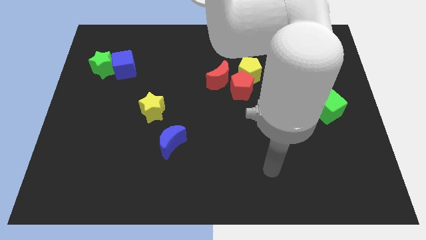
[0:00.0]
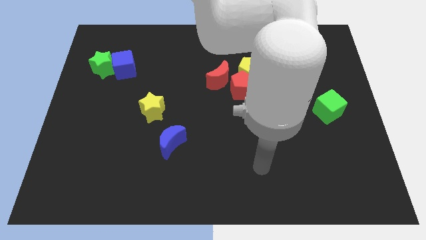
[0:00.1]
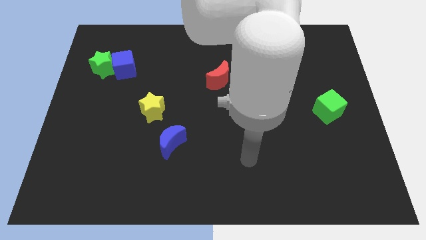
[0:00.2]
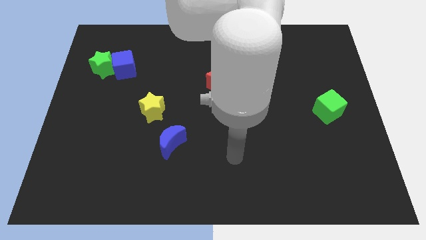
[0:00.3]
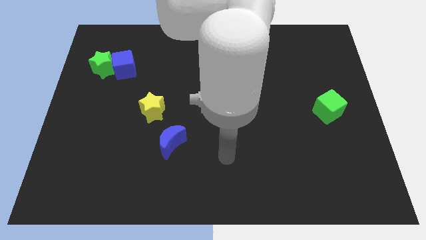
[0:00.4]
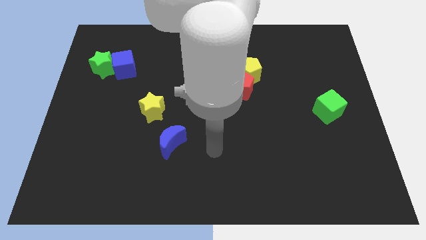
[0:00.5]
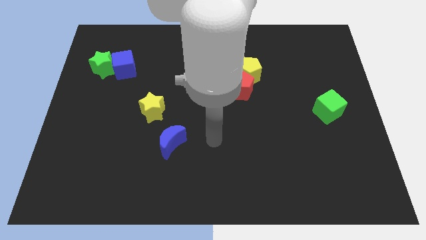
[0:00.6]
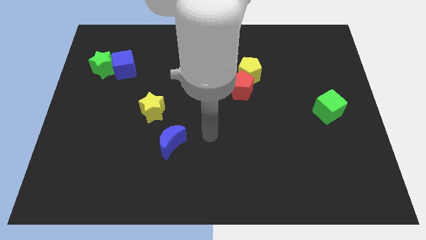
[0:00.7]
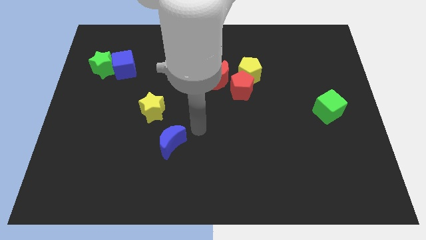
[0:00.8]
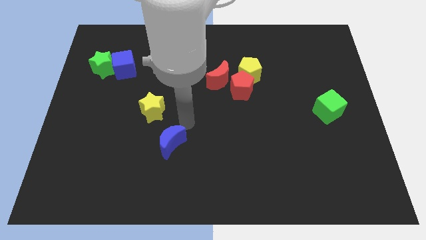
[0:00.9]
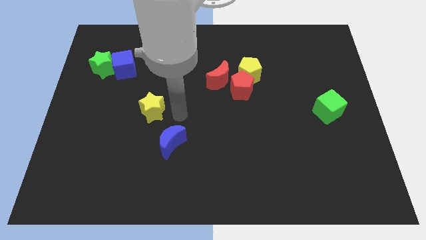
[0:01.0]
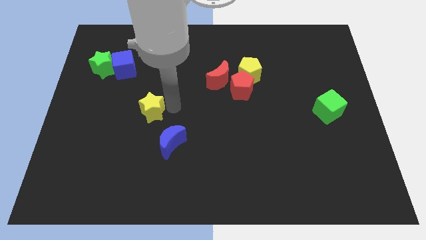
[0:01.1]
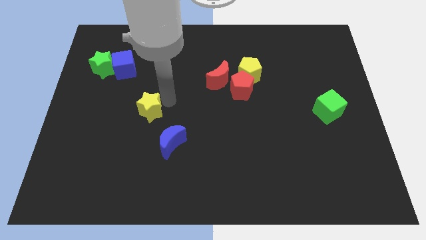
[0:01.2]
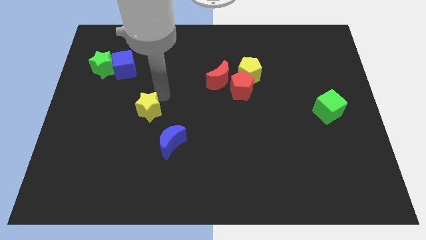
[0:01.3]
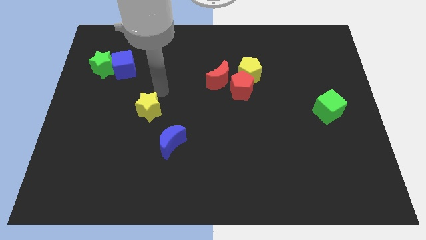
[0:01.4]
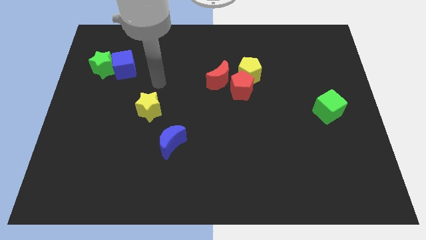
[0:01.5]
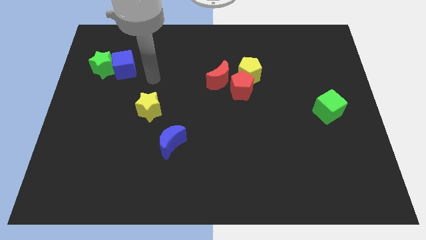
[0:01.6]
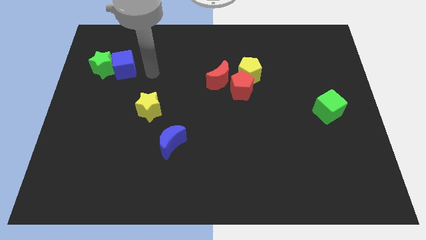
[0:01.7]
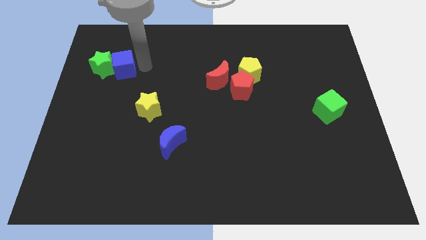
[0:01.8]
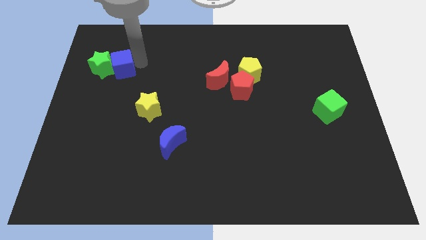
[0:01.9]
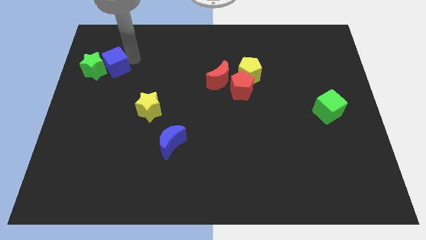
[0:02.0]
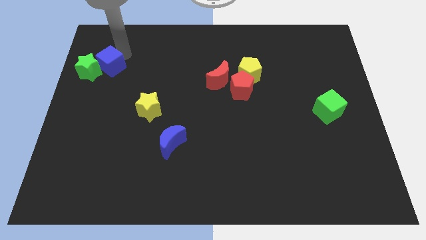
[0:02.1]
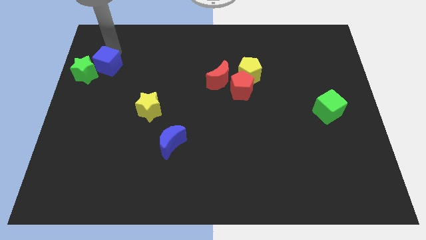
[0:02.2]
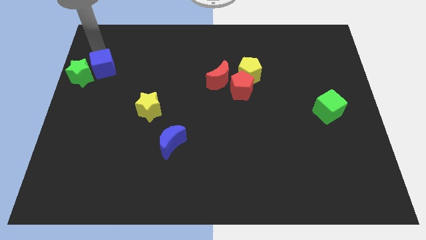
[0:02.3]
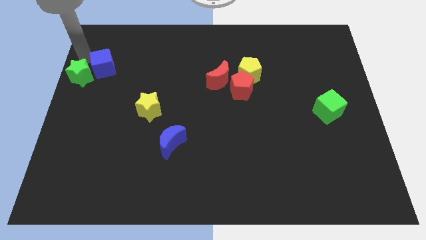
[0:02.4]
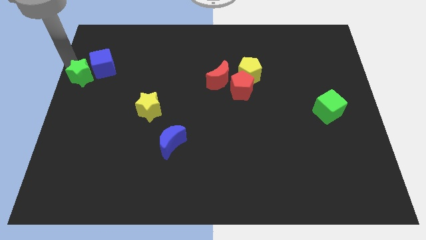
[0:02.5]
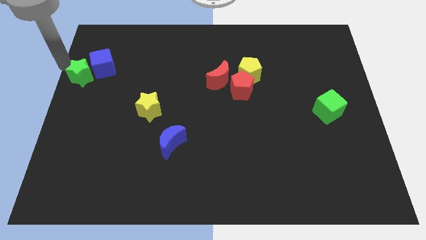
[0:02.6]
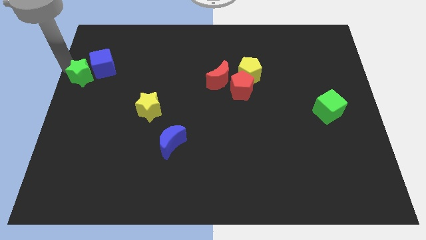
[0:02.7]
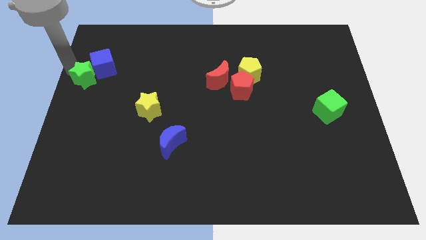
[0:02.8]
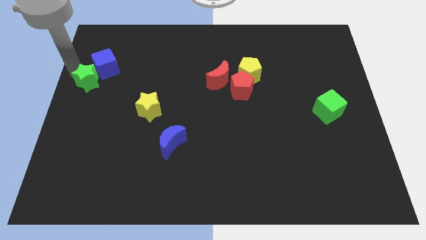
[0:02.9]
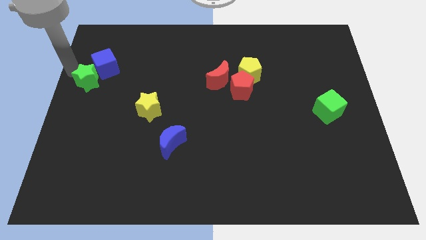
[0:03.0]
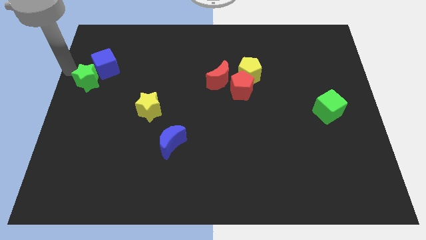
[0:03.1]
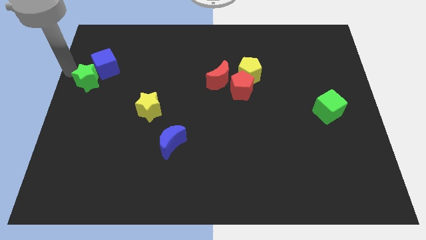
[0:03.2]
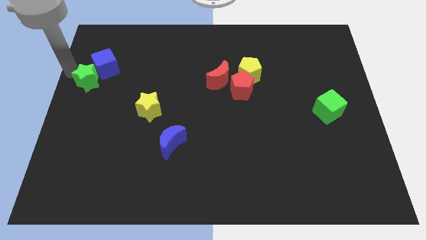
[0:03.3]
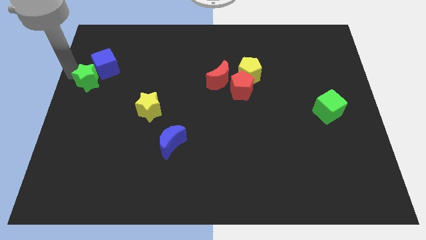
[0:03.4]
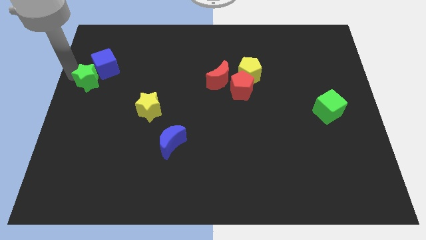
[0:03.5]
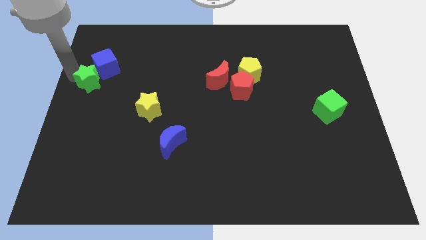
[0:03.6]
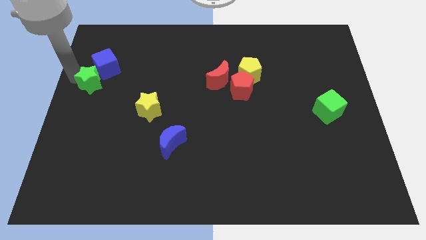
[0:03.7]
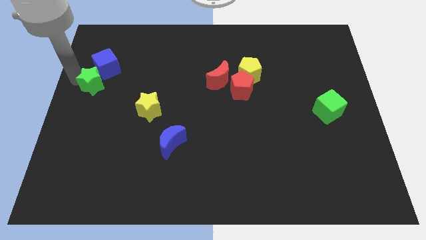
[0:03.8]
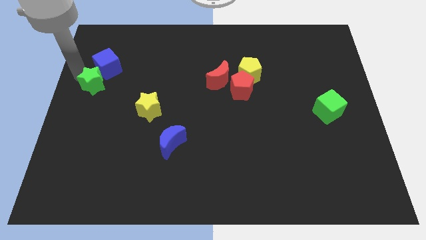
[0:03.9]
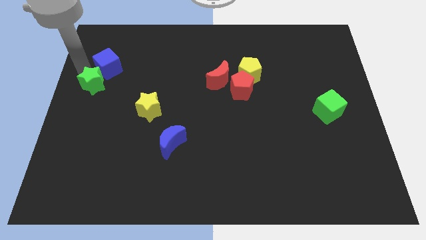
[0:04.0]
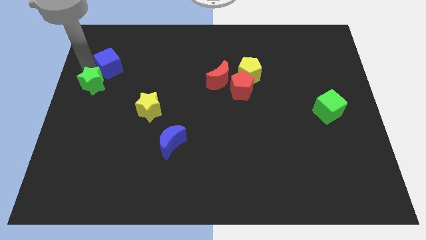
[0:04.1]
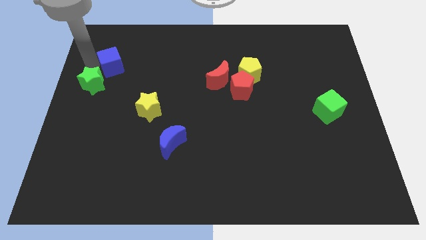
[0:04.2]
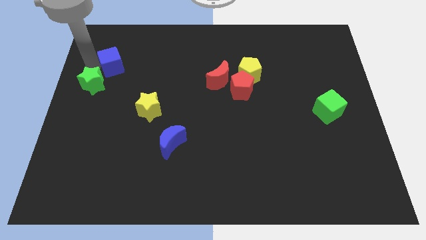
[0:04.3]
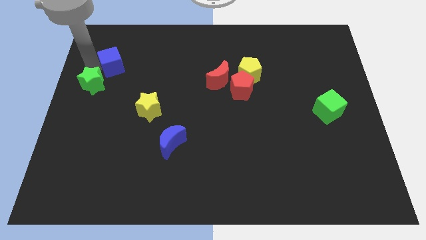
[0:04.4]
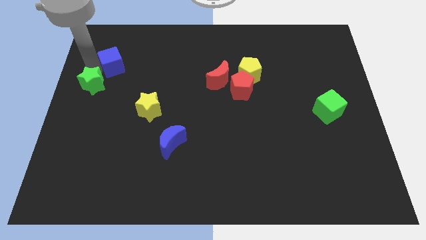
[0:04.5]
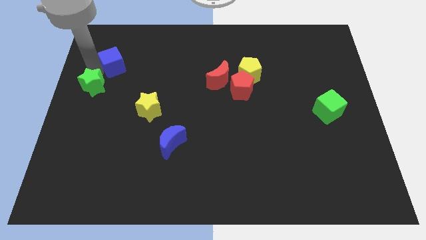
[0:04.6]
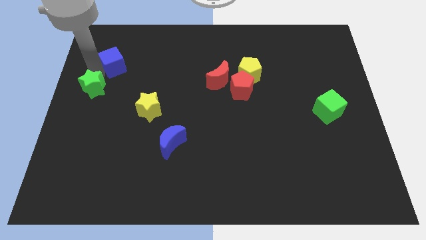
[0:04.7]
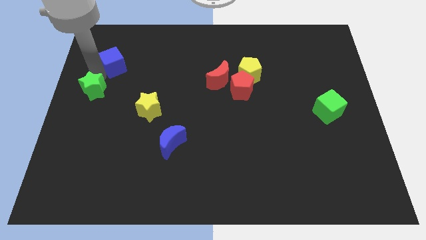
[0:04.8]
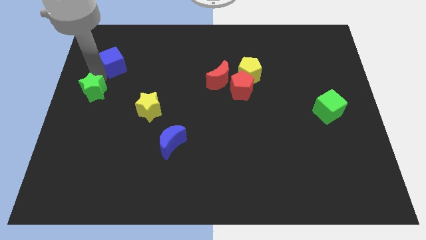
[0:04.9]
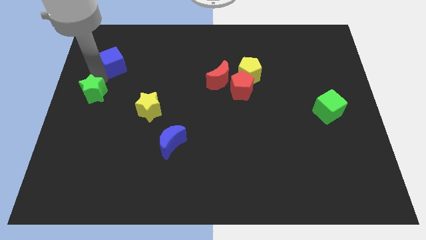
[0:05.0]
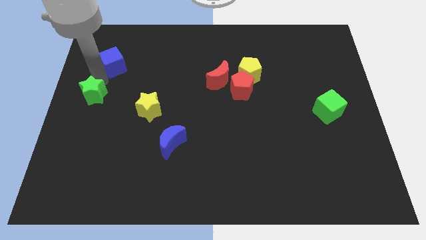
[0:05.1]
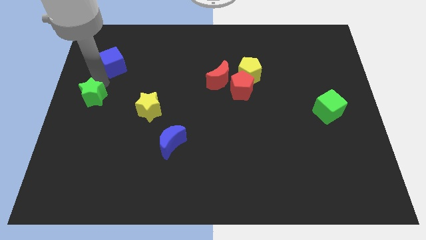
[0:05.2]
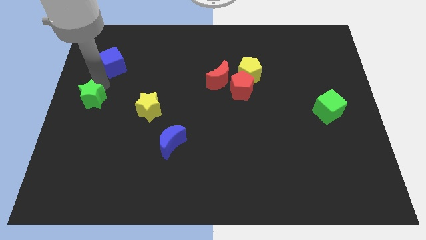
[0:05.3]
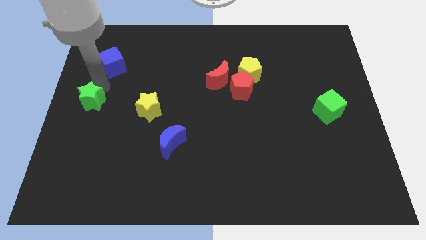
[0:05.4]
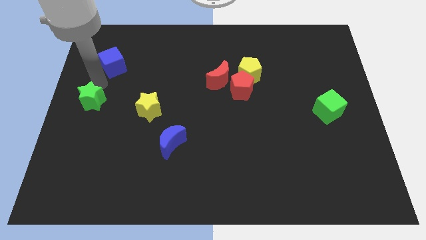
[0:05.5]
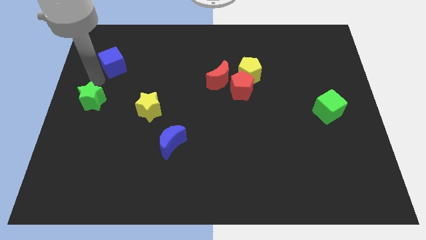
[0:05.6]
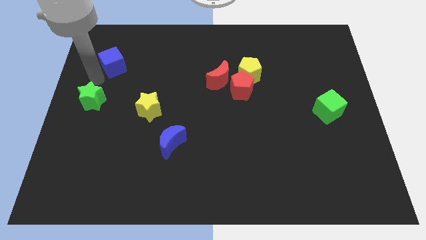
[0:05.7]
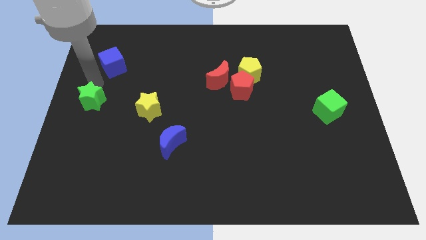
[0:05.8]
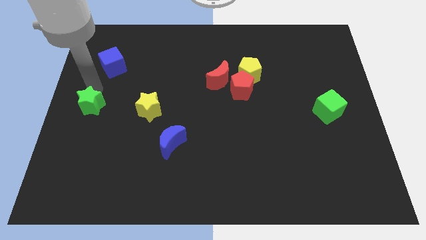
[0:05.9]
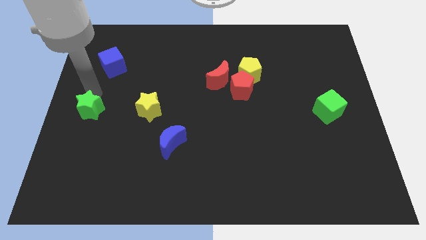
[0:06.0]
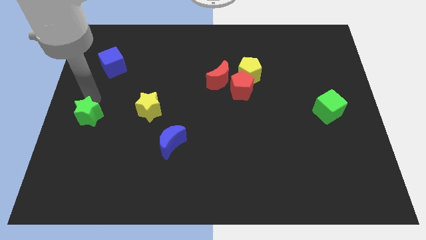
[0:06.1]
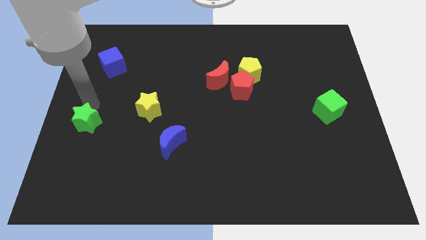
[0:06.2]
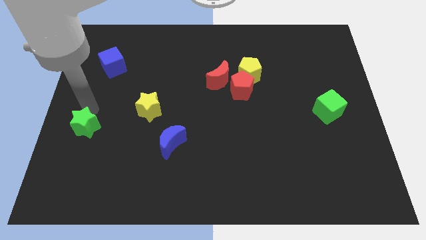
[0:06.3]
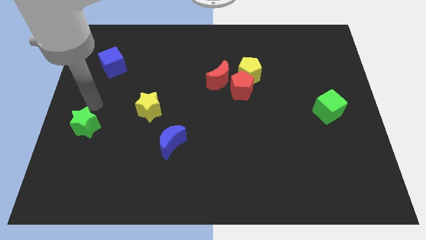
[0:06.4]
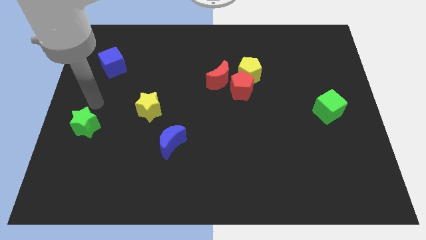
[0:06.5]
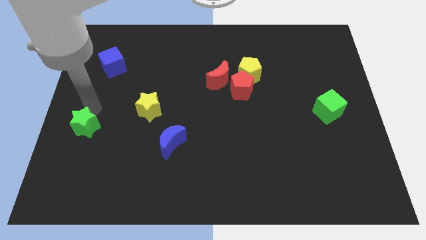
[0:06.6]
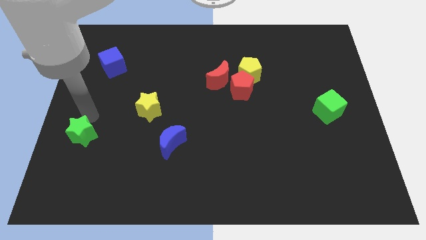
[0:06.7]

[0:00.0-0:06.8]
slide the green star down

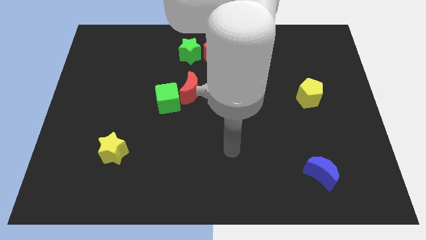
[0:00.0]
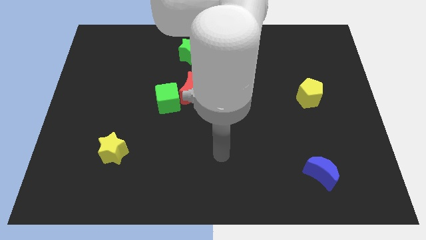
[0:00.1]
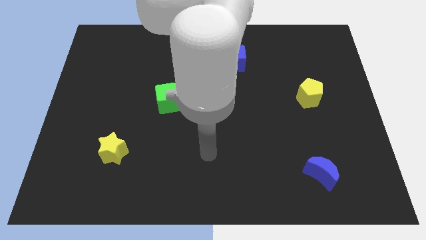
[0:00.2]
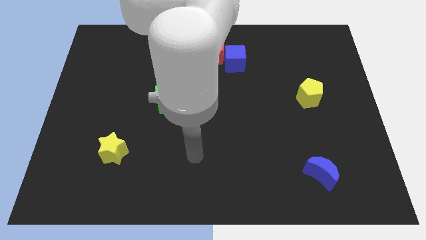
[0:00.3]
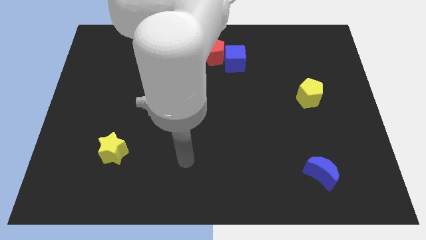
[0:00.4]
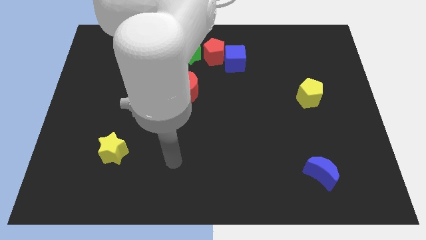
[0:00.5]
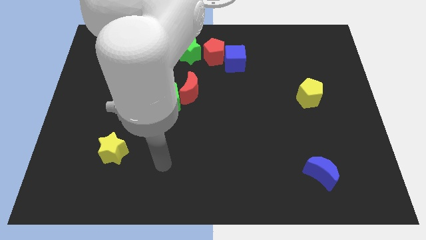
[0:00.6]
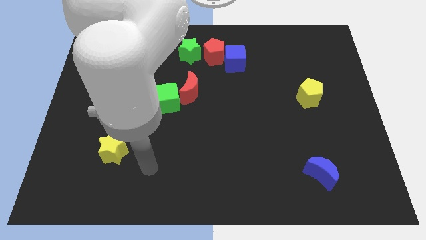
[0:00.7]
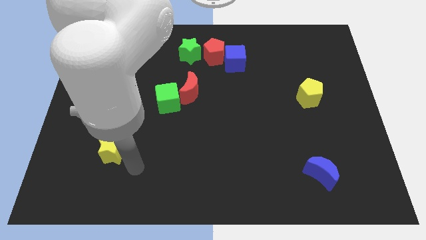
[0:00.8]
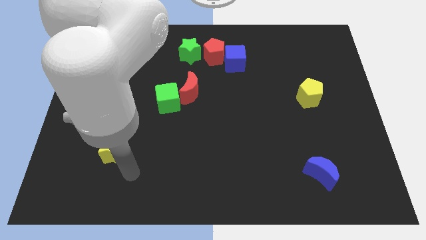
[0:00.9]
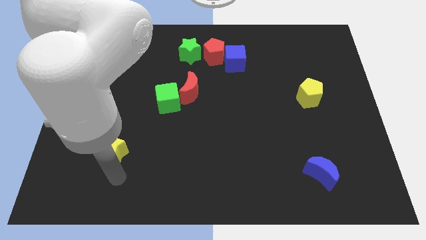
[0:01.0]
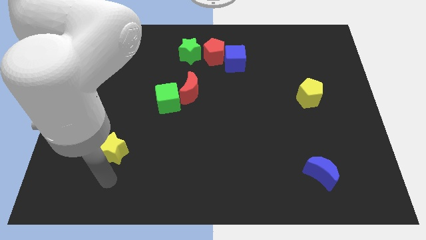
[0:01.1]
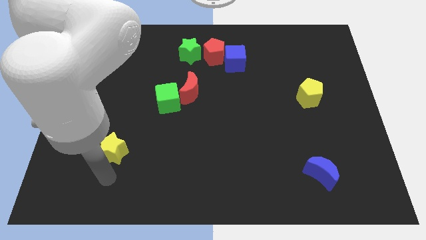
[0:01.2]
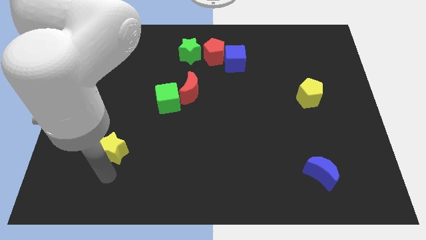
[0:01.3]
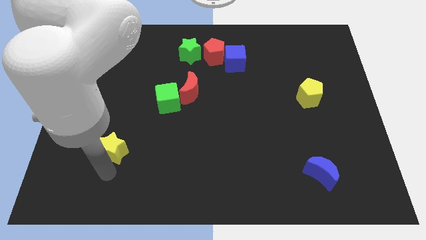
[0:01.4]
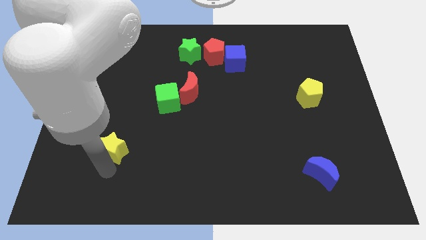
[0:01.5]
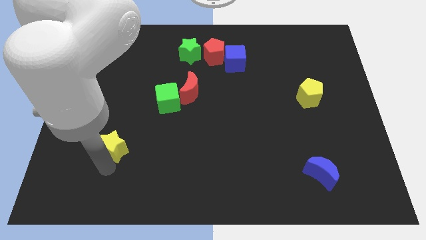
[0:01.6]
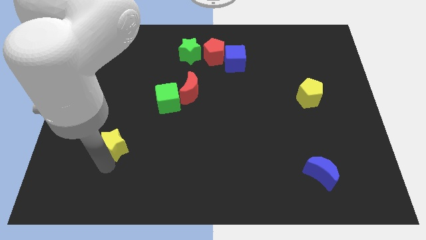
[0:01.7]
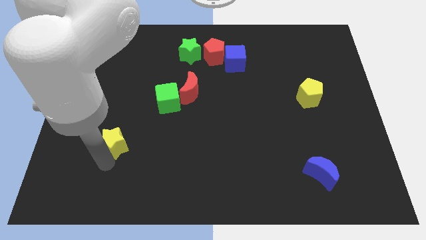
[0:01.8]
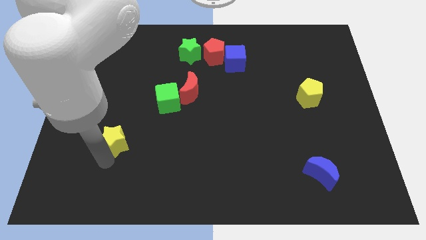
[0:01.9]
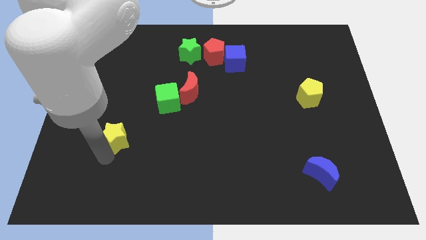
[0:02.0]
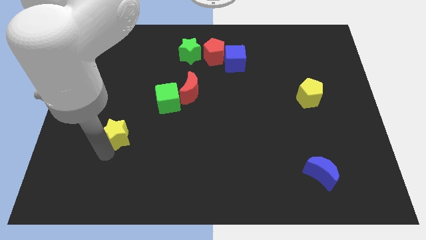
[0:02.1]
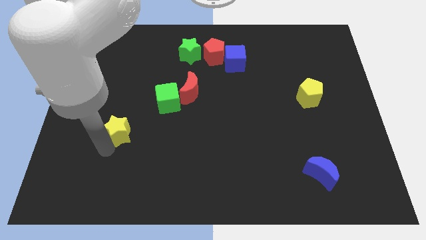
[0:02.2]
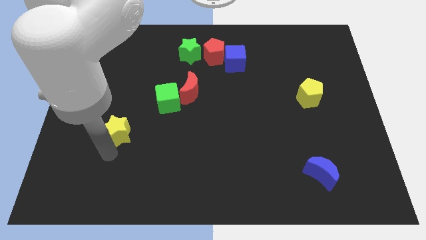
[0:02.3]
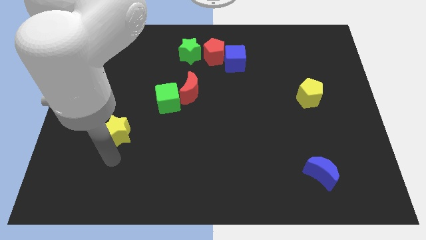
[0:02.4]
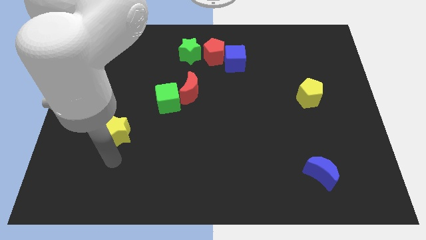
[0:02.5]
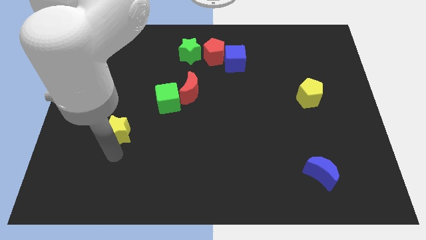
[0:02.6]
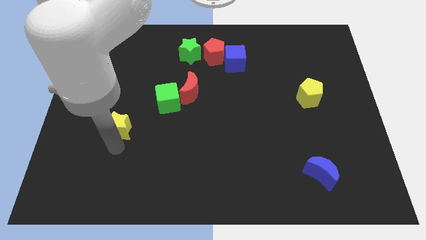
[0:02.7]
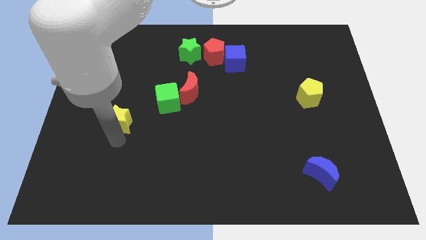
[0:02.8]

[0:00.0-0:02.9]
slightly move the yellow star upwards
